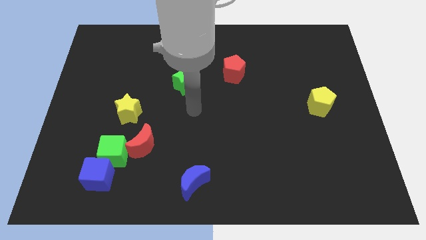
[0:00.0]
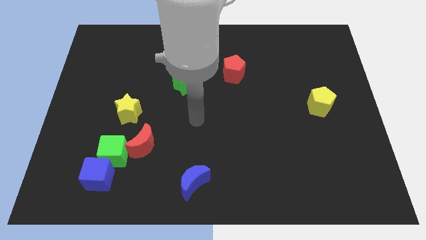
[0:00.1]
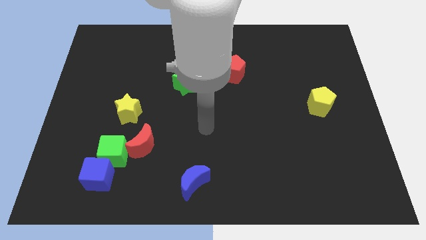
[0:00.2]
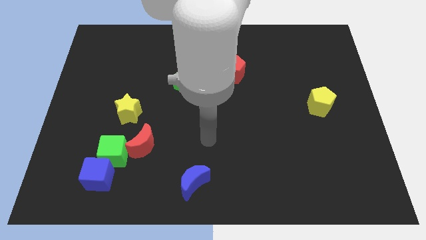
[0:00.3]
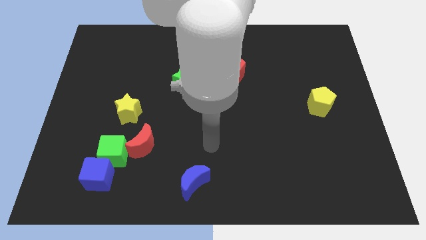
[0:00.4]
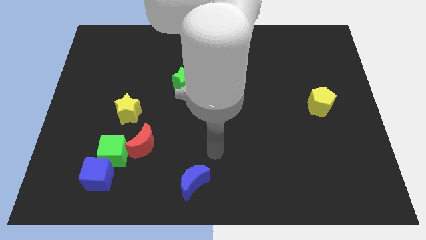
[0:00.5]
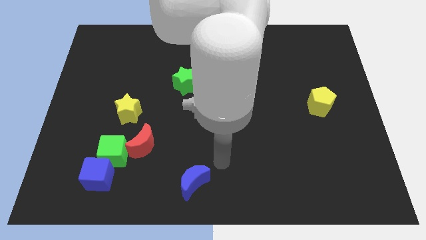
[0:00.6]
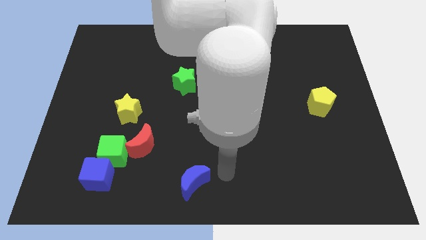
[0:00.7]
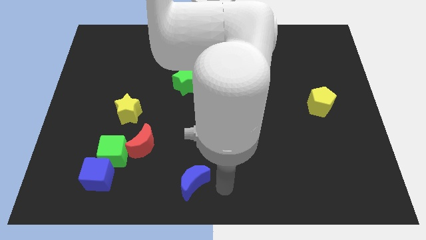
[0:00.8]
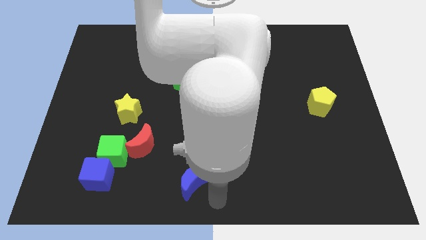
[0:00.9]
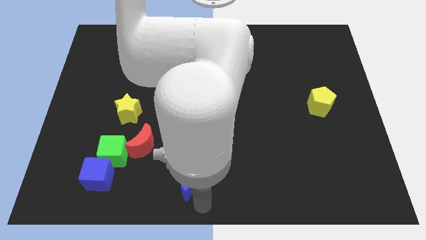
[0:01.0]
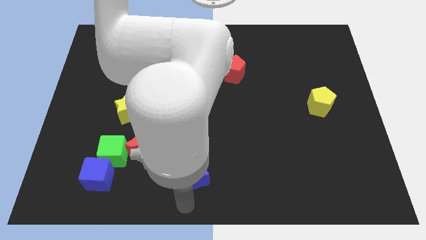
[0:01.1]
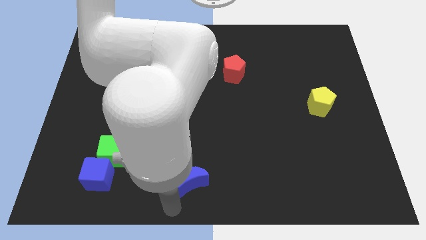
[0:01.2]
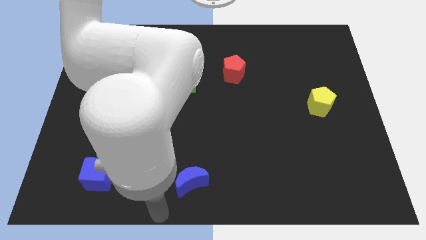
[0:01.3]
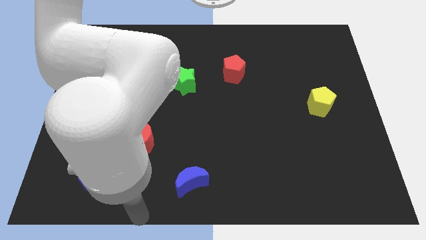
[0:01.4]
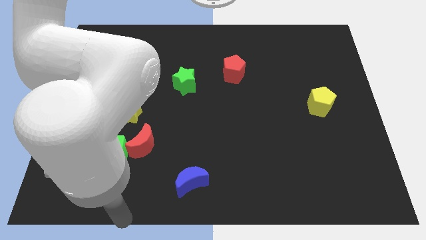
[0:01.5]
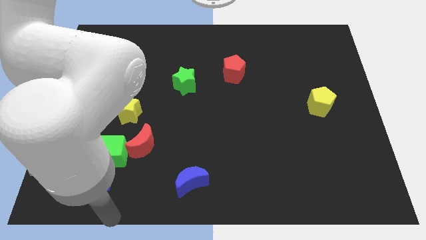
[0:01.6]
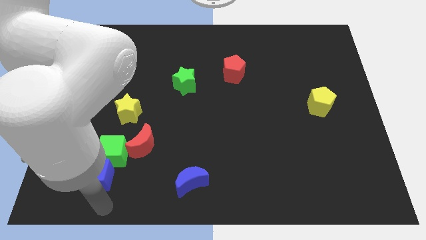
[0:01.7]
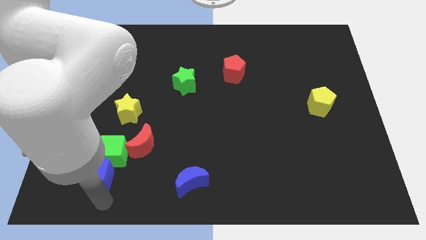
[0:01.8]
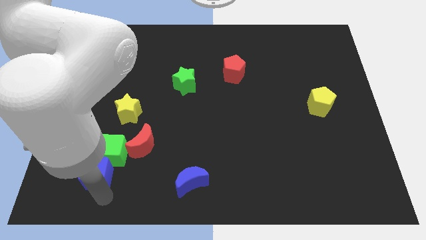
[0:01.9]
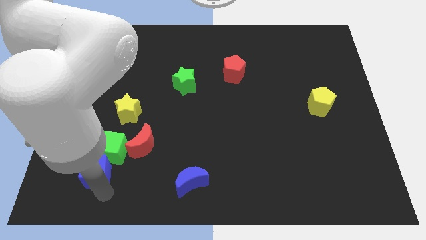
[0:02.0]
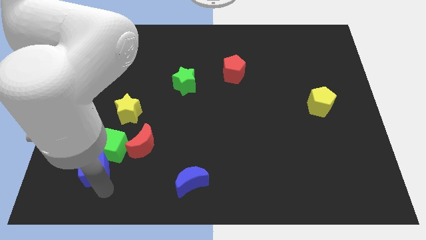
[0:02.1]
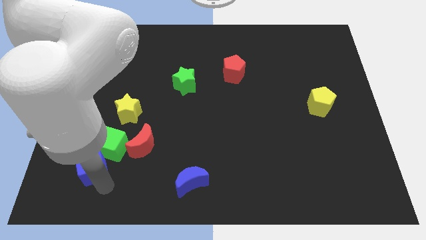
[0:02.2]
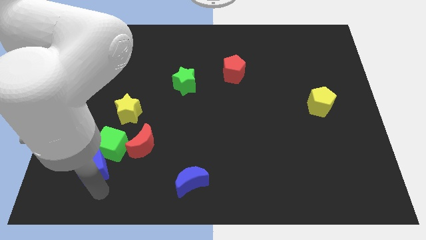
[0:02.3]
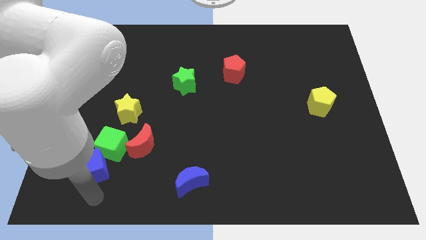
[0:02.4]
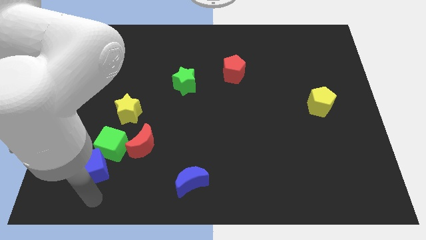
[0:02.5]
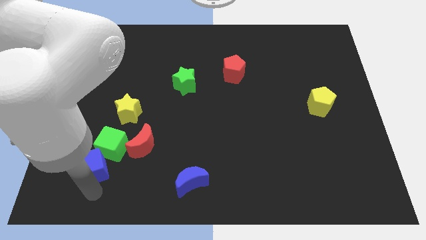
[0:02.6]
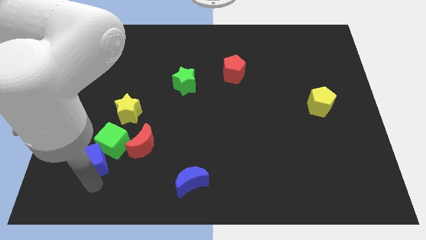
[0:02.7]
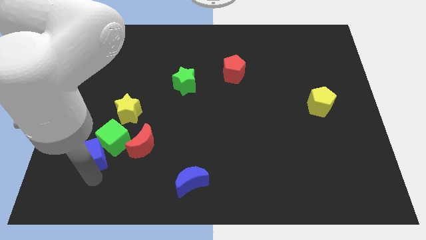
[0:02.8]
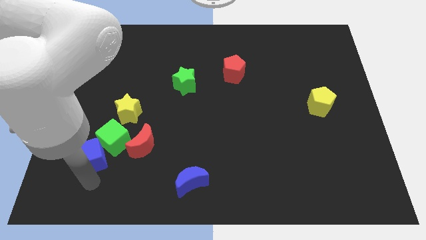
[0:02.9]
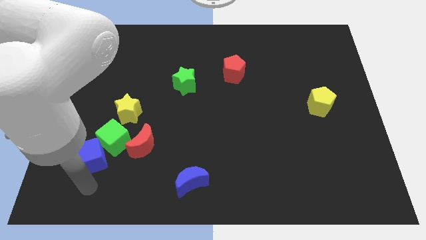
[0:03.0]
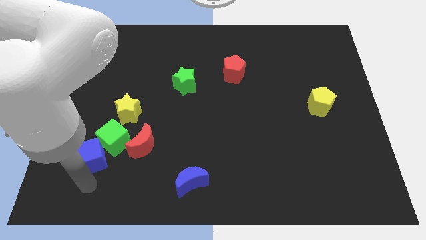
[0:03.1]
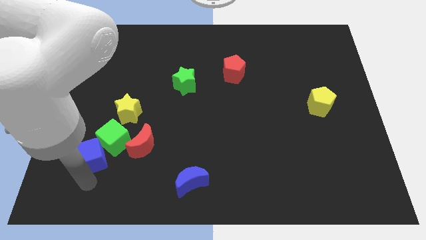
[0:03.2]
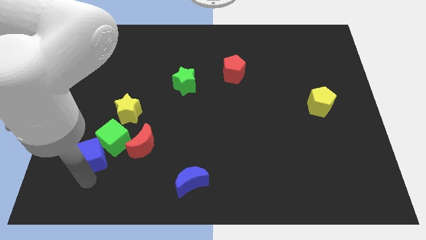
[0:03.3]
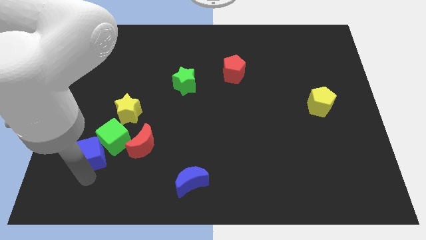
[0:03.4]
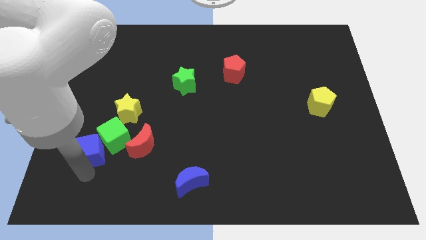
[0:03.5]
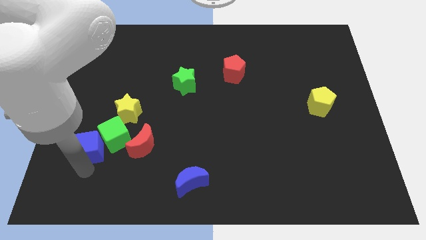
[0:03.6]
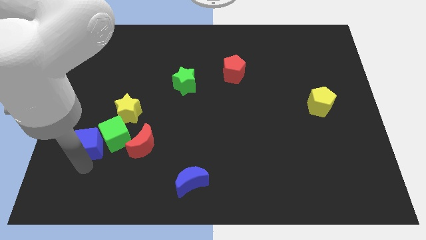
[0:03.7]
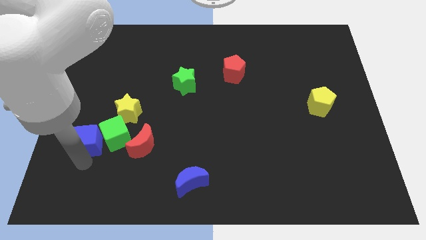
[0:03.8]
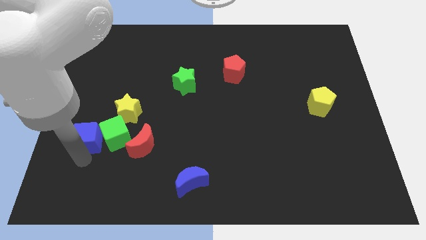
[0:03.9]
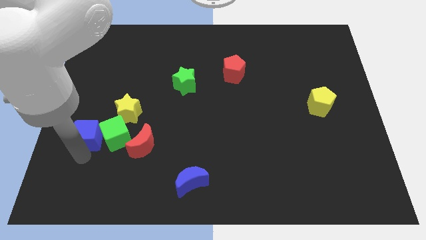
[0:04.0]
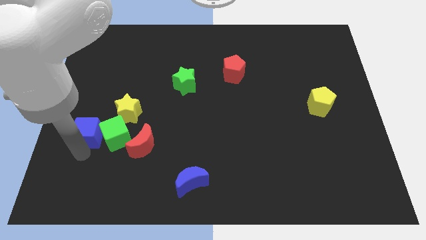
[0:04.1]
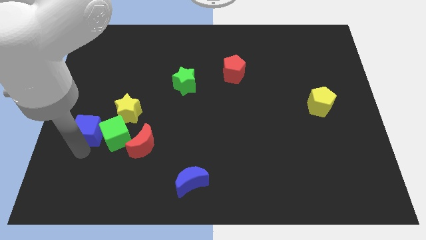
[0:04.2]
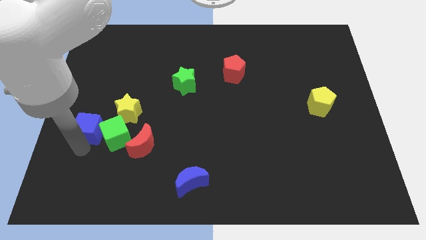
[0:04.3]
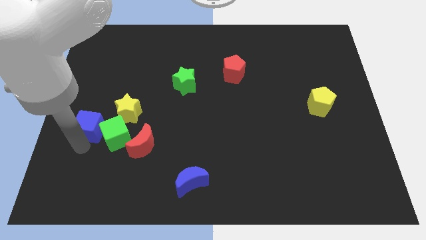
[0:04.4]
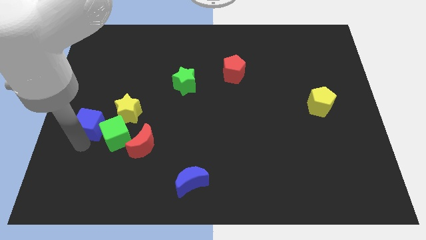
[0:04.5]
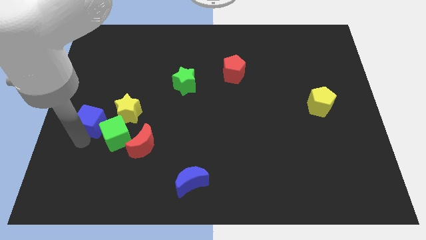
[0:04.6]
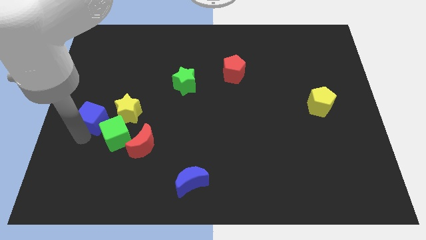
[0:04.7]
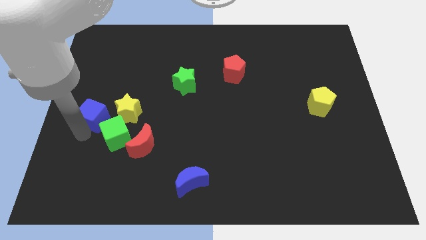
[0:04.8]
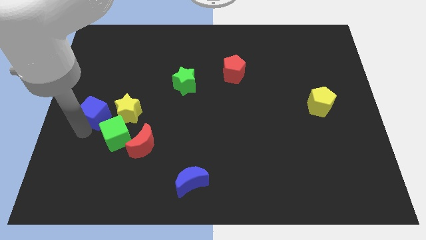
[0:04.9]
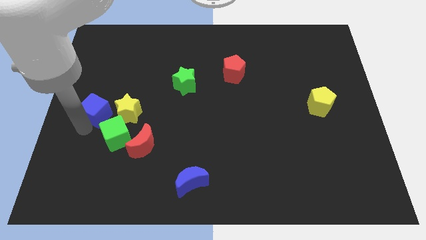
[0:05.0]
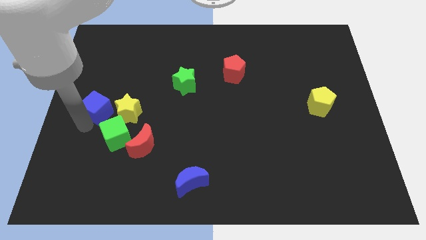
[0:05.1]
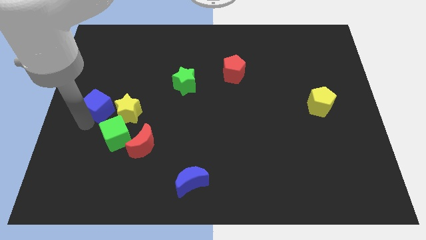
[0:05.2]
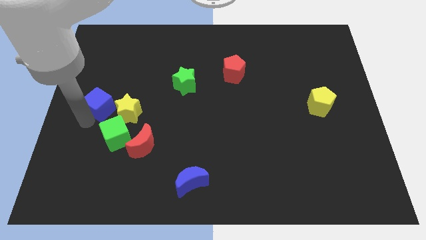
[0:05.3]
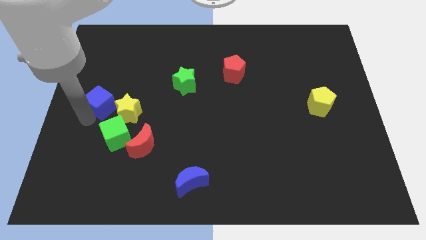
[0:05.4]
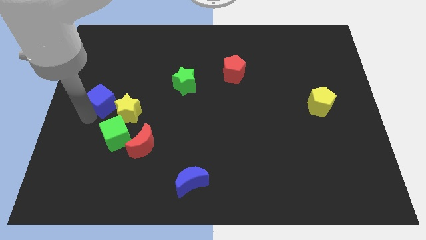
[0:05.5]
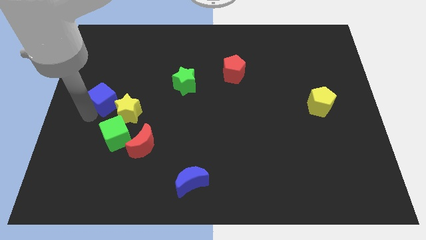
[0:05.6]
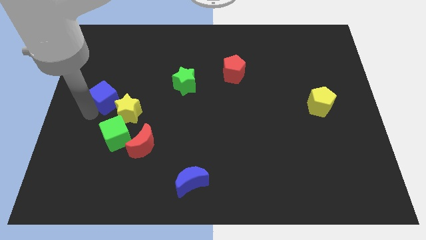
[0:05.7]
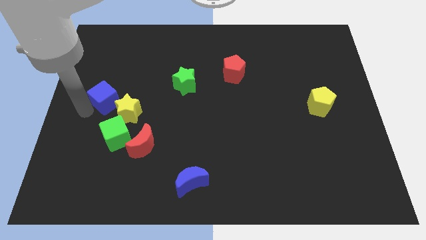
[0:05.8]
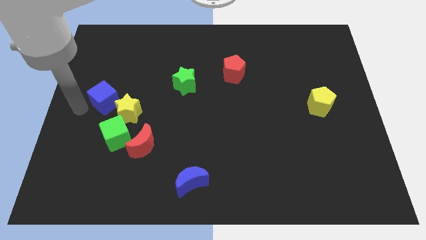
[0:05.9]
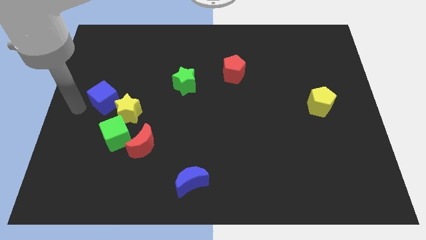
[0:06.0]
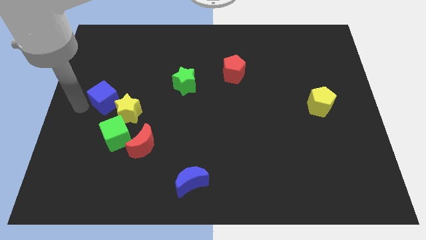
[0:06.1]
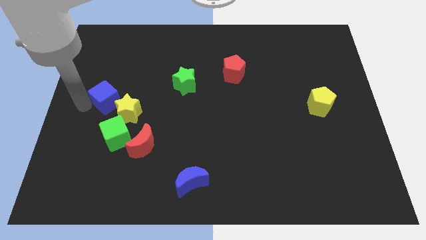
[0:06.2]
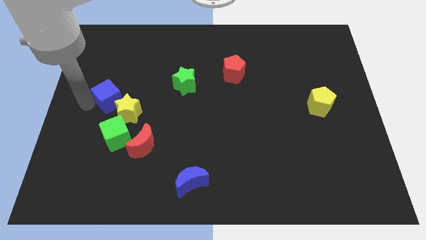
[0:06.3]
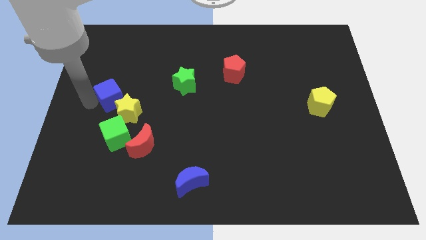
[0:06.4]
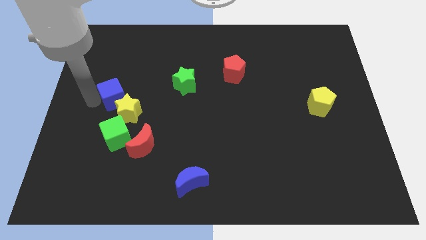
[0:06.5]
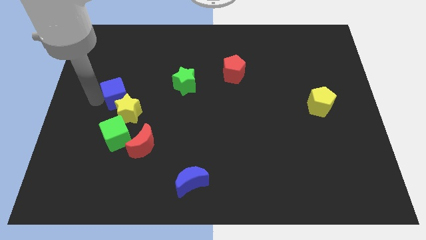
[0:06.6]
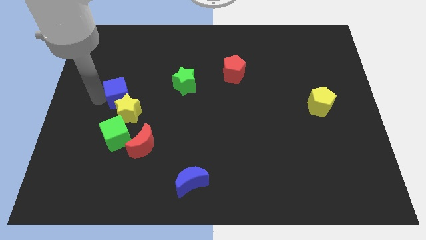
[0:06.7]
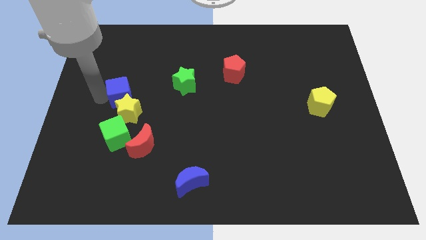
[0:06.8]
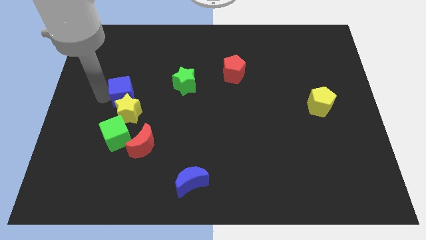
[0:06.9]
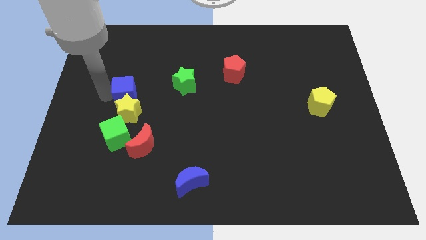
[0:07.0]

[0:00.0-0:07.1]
slide the blue cube to the top right side of the yellow star

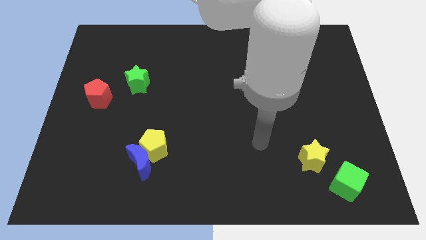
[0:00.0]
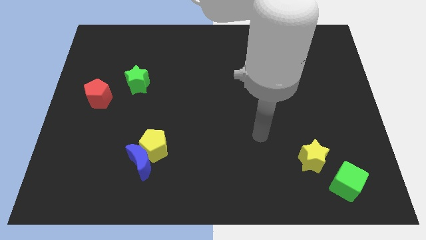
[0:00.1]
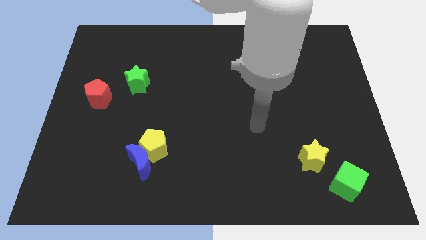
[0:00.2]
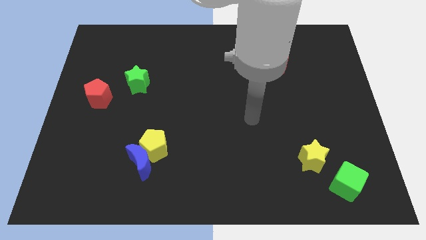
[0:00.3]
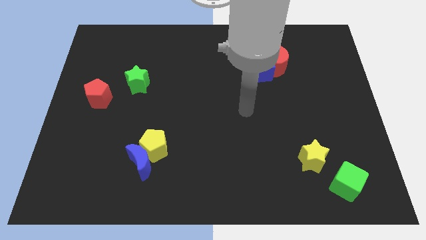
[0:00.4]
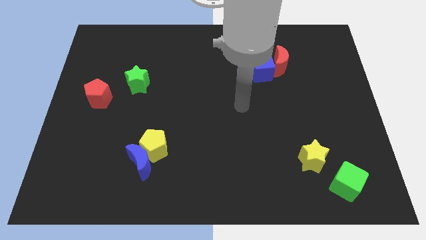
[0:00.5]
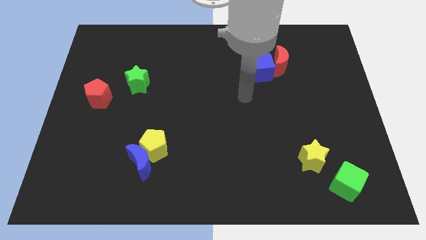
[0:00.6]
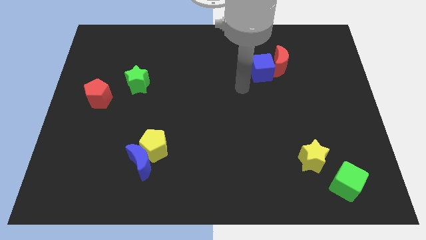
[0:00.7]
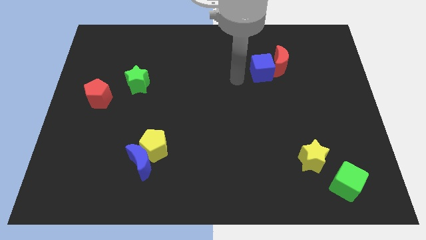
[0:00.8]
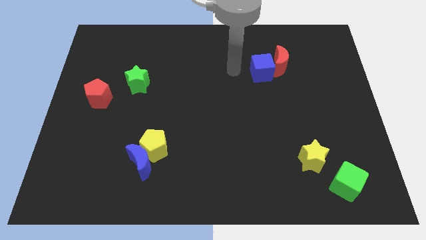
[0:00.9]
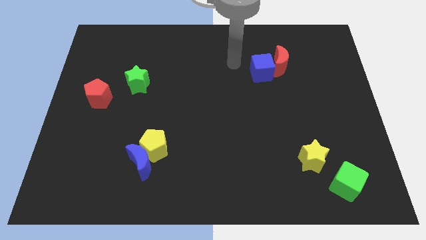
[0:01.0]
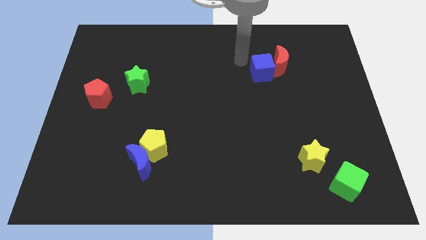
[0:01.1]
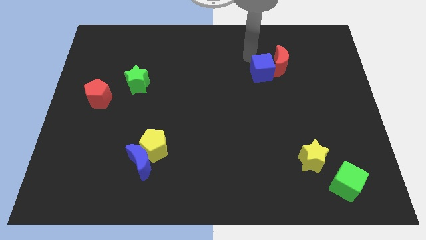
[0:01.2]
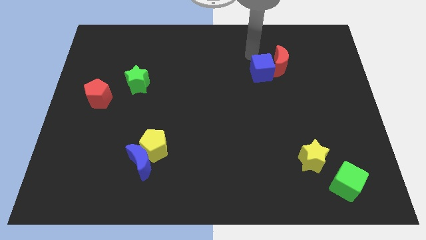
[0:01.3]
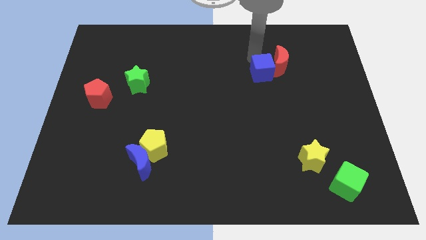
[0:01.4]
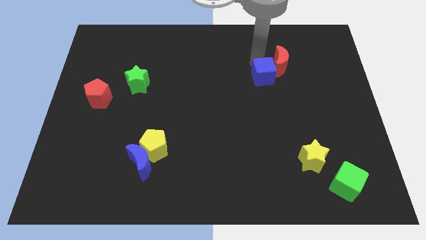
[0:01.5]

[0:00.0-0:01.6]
push the blue cube below the red moon
